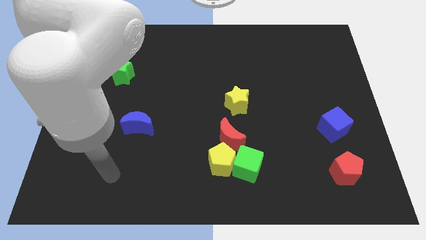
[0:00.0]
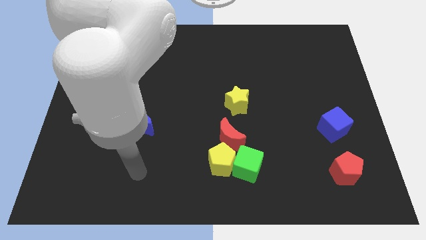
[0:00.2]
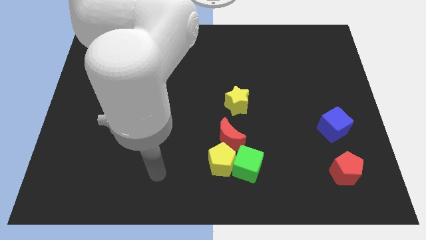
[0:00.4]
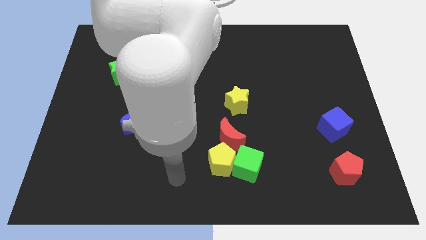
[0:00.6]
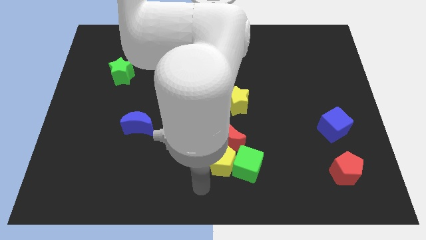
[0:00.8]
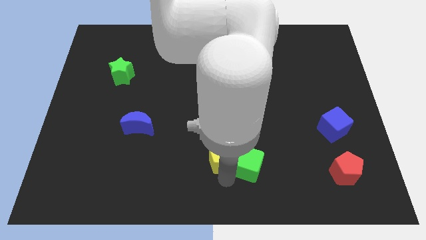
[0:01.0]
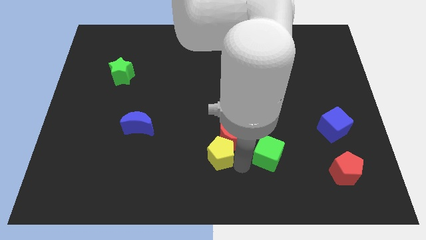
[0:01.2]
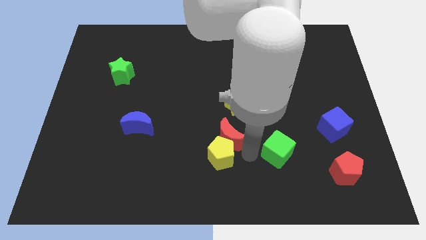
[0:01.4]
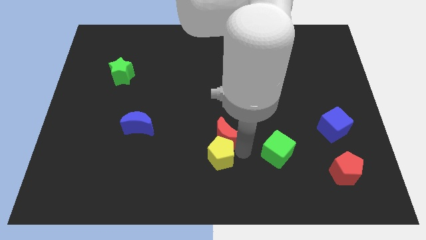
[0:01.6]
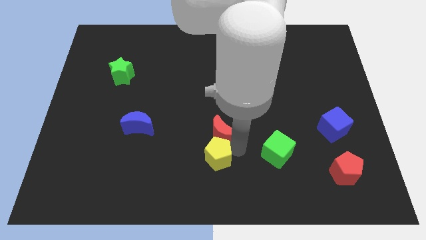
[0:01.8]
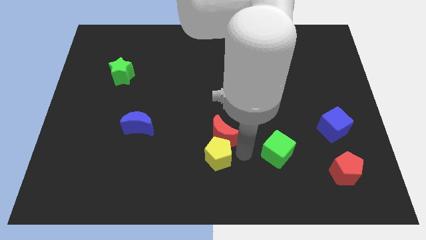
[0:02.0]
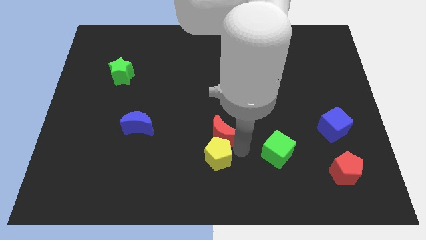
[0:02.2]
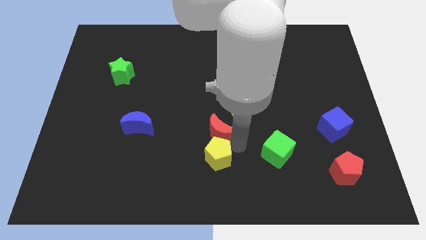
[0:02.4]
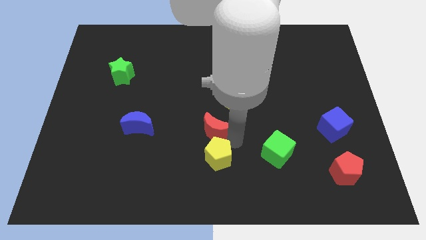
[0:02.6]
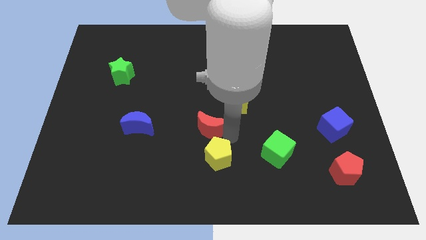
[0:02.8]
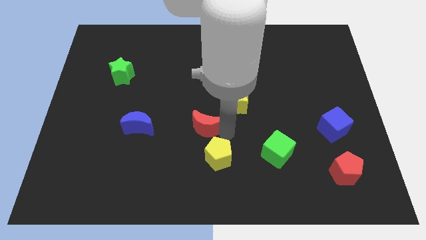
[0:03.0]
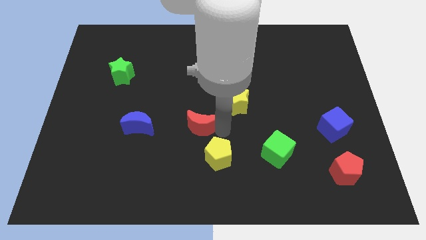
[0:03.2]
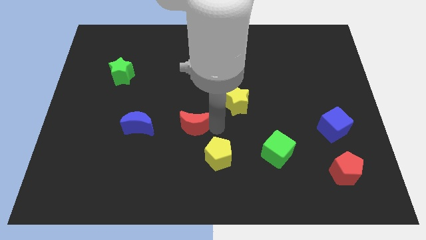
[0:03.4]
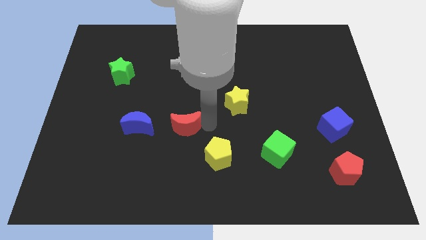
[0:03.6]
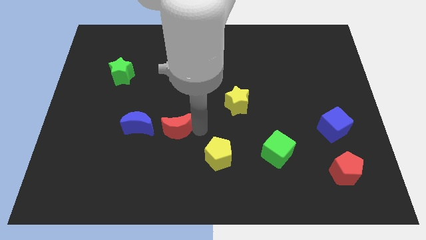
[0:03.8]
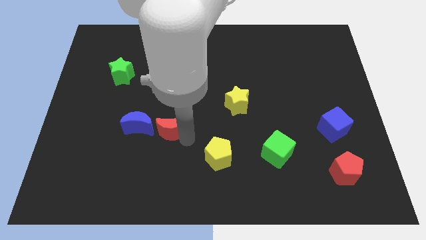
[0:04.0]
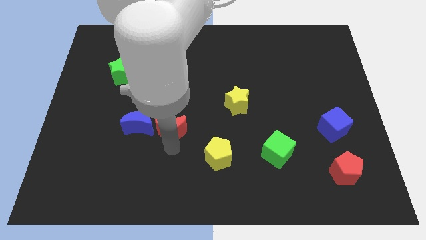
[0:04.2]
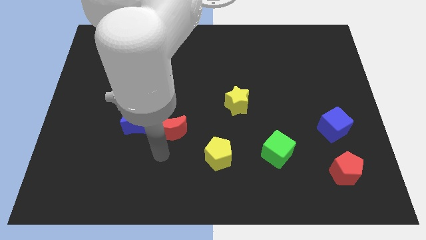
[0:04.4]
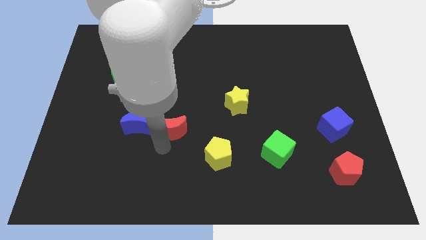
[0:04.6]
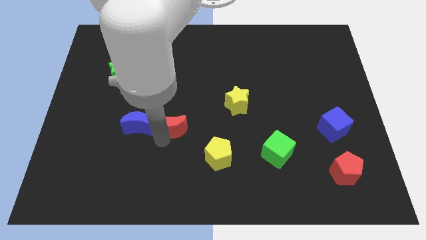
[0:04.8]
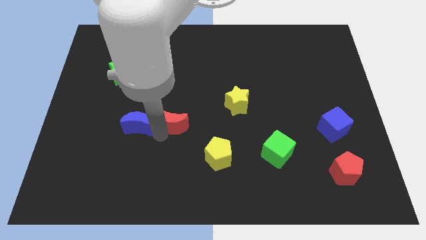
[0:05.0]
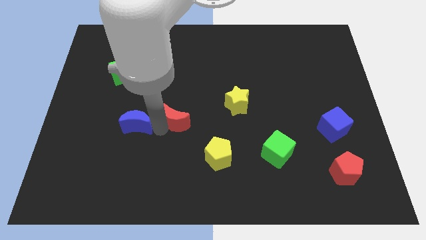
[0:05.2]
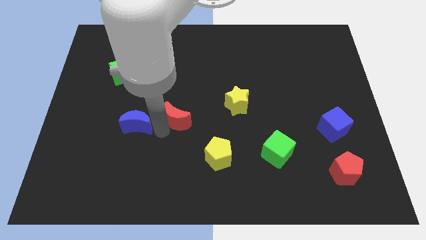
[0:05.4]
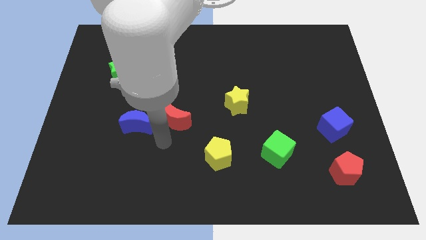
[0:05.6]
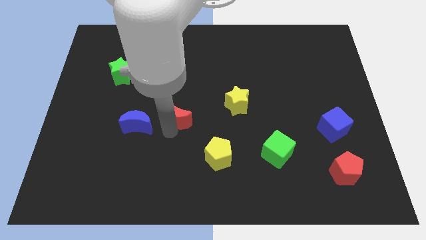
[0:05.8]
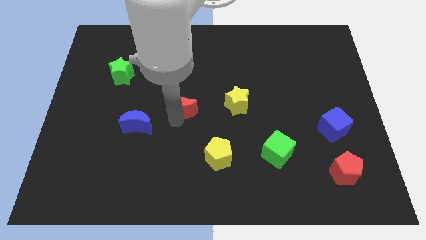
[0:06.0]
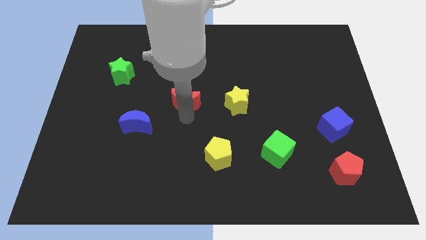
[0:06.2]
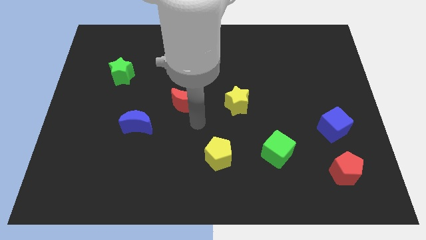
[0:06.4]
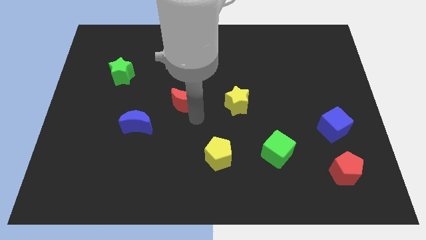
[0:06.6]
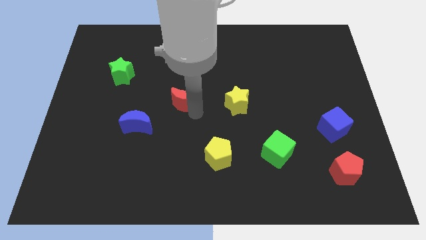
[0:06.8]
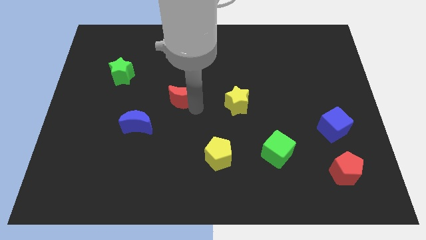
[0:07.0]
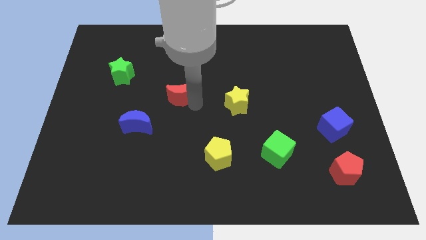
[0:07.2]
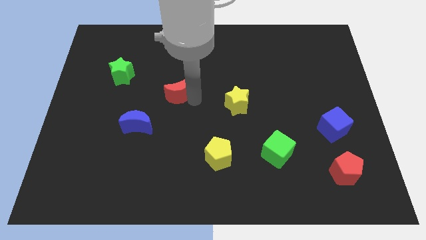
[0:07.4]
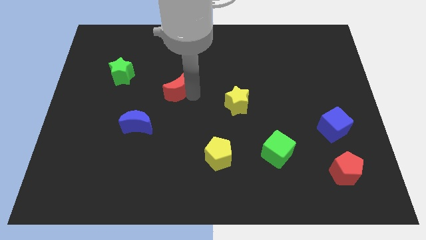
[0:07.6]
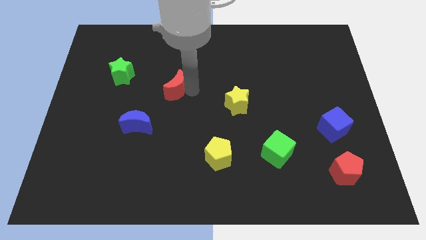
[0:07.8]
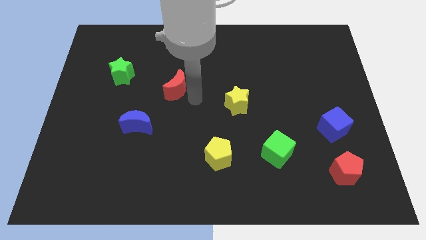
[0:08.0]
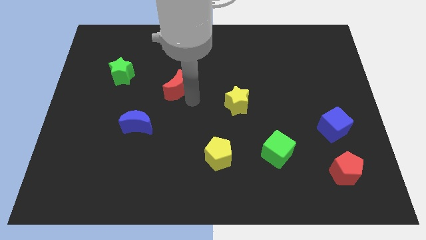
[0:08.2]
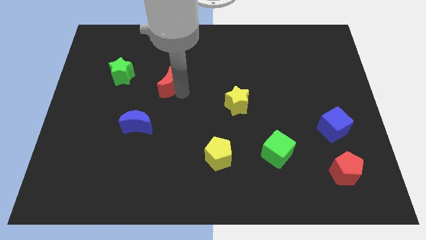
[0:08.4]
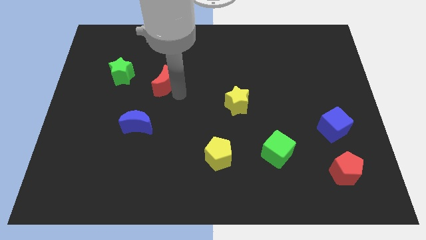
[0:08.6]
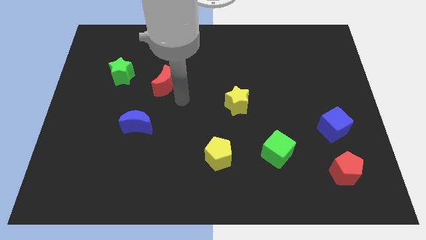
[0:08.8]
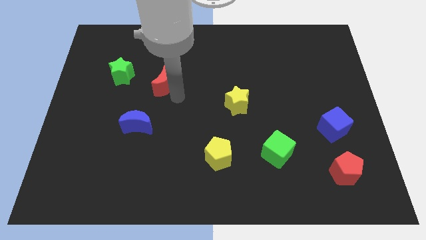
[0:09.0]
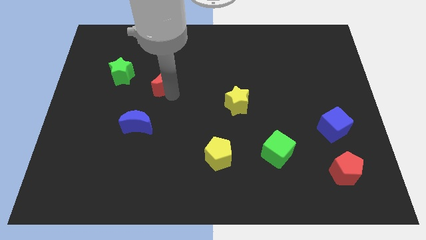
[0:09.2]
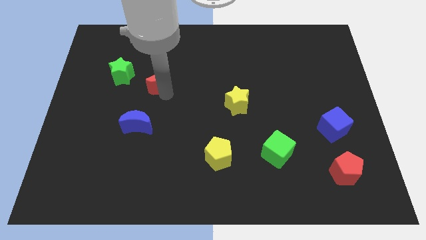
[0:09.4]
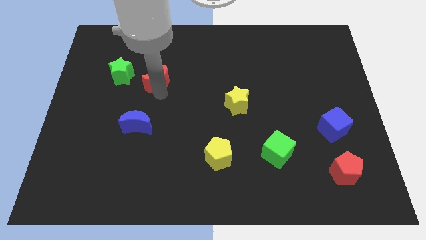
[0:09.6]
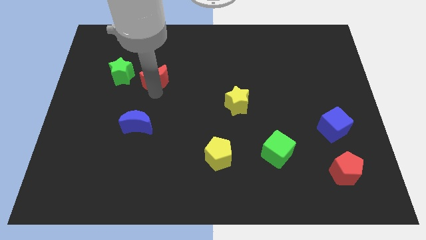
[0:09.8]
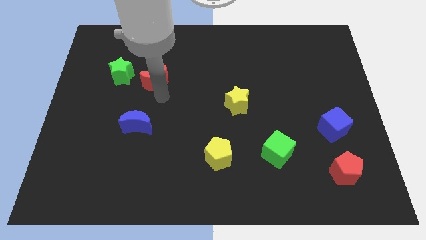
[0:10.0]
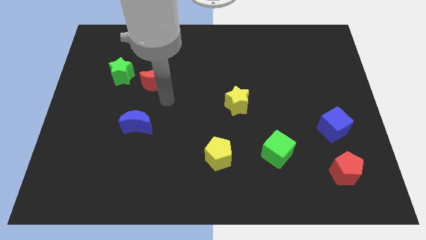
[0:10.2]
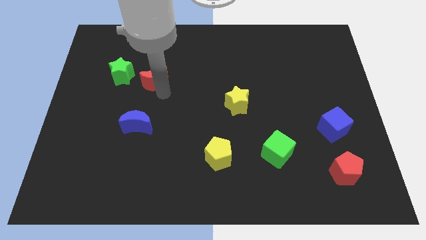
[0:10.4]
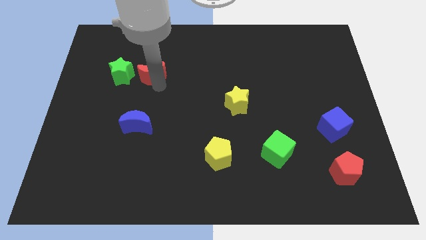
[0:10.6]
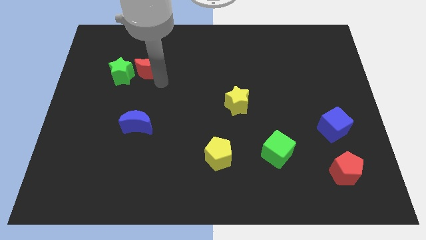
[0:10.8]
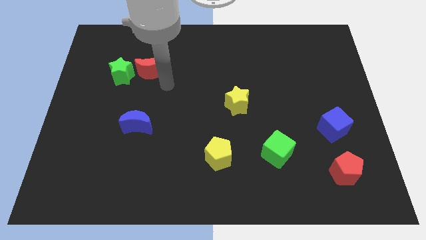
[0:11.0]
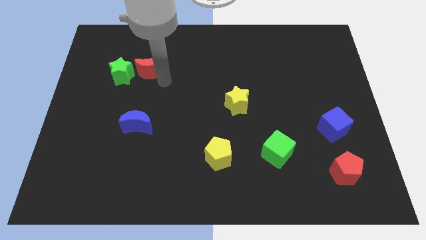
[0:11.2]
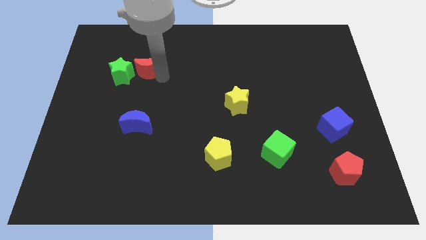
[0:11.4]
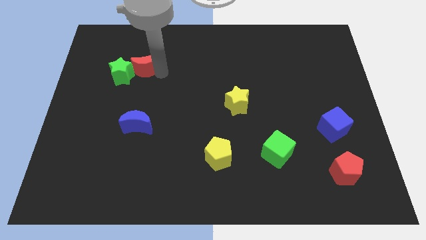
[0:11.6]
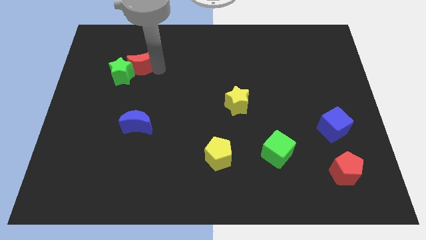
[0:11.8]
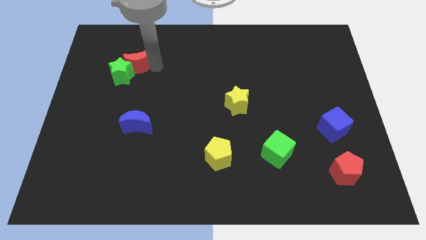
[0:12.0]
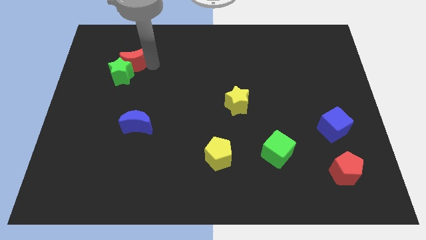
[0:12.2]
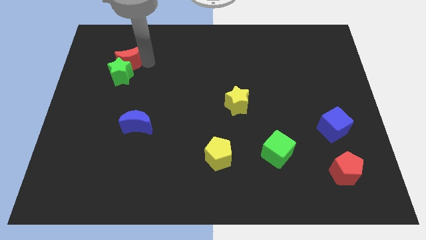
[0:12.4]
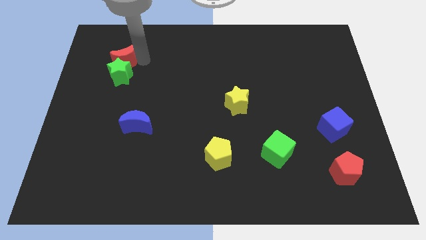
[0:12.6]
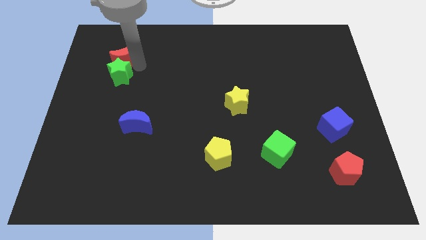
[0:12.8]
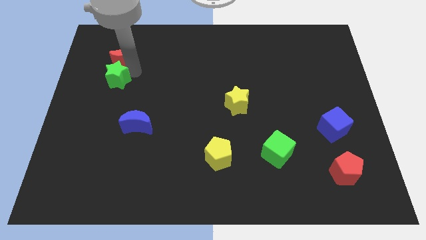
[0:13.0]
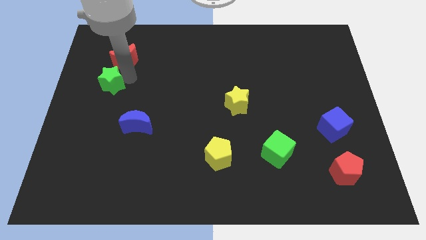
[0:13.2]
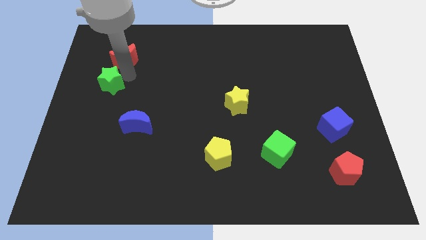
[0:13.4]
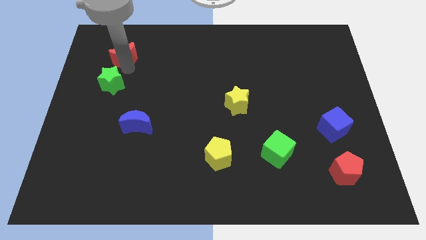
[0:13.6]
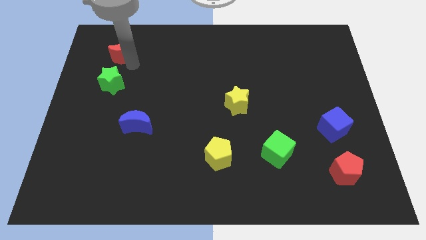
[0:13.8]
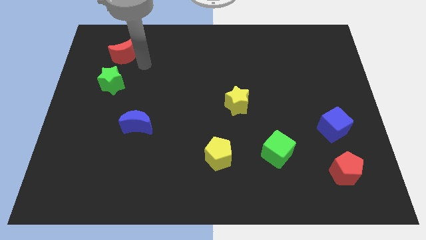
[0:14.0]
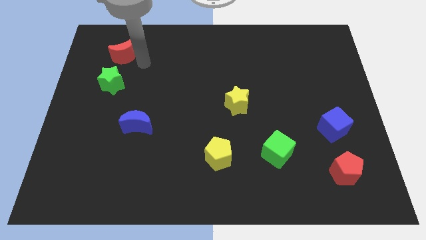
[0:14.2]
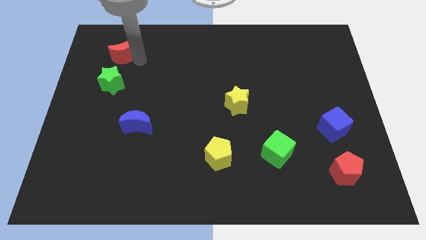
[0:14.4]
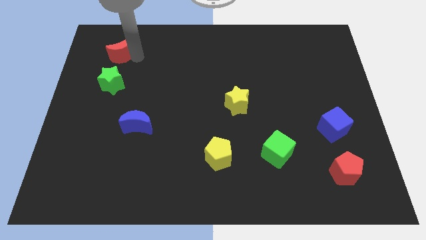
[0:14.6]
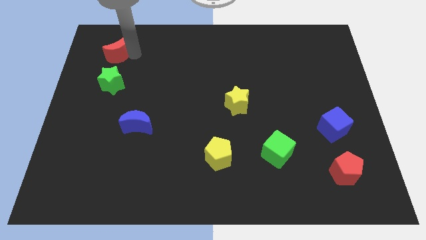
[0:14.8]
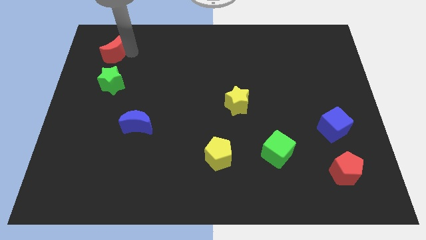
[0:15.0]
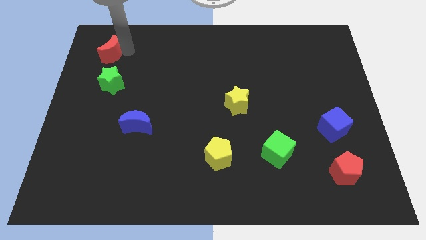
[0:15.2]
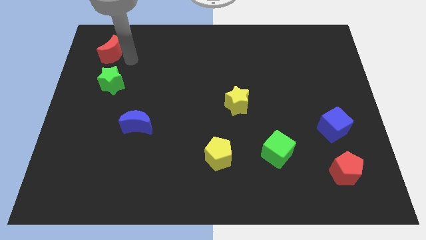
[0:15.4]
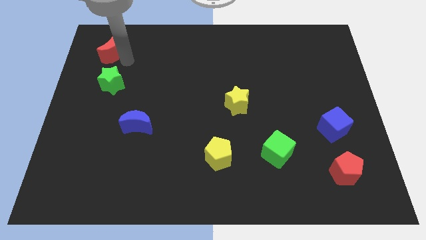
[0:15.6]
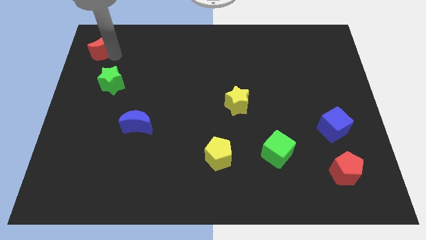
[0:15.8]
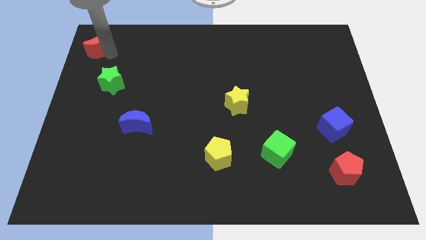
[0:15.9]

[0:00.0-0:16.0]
move the red moon to the upper left corner
